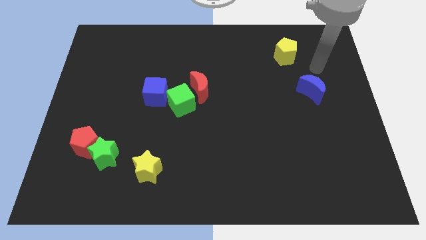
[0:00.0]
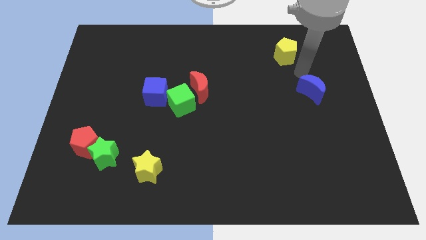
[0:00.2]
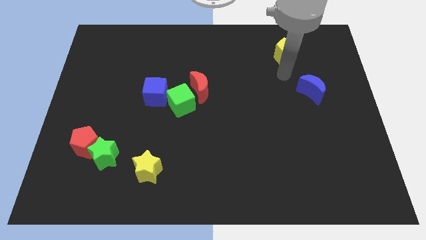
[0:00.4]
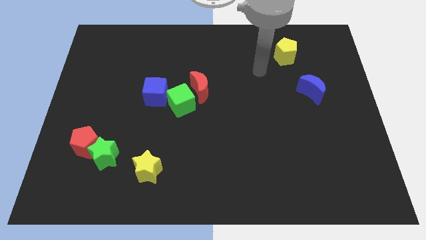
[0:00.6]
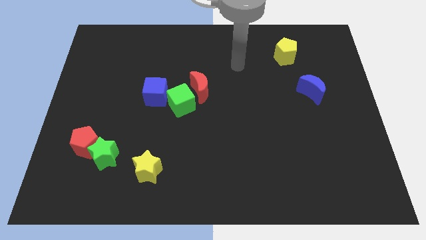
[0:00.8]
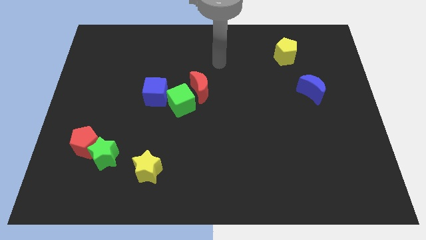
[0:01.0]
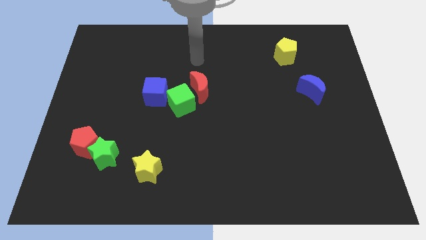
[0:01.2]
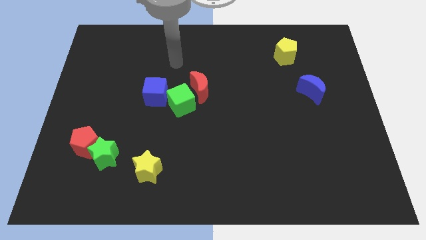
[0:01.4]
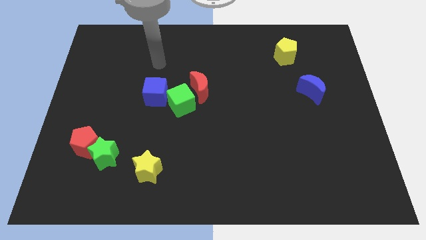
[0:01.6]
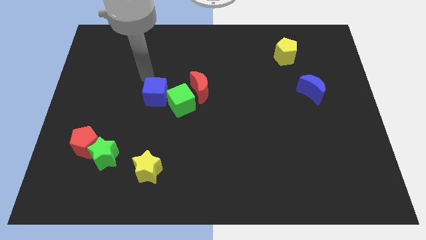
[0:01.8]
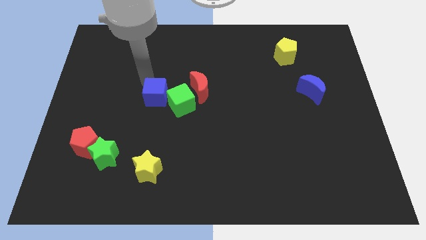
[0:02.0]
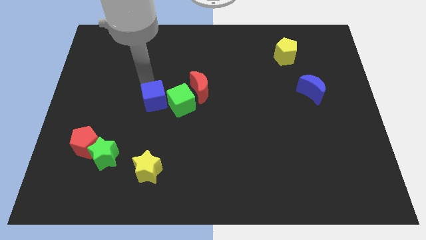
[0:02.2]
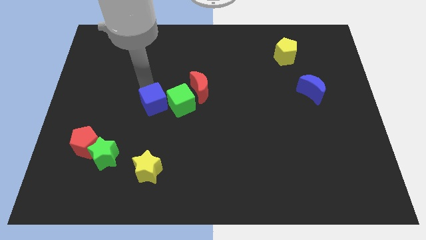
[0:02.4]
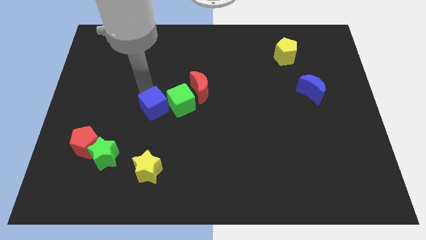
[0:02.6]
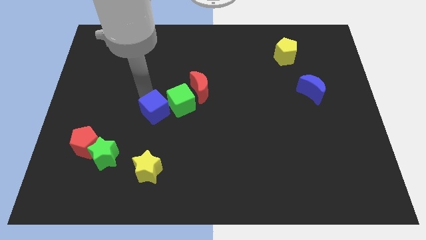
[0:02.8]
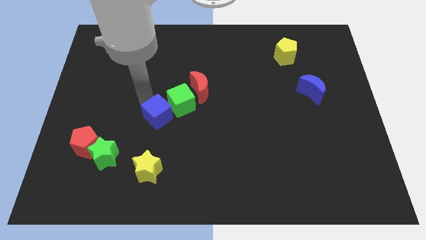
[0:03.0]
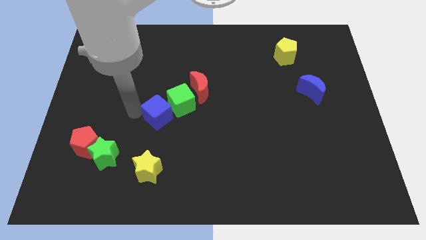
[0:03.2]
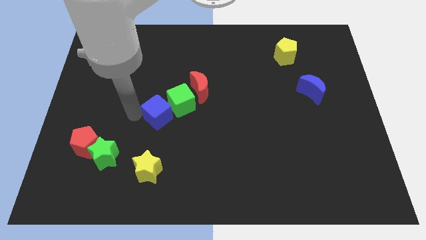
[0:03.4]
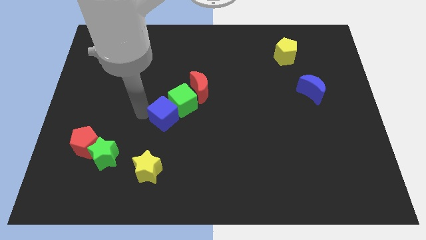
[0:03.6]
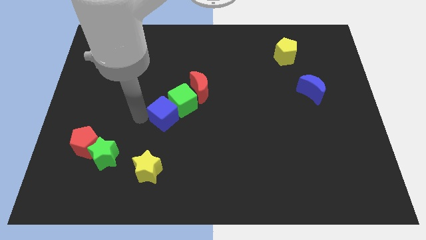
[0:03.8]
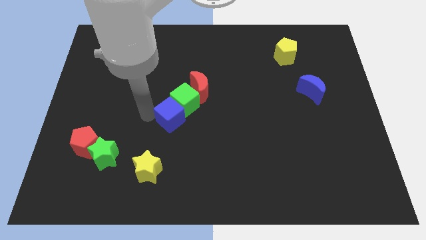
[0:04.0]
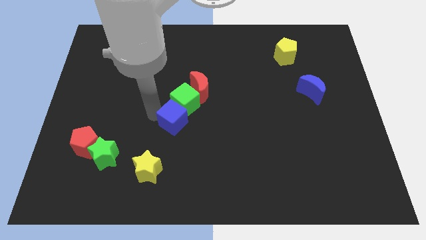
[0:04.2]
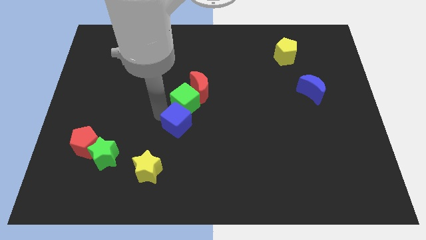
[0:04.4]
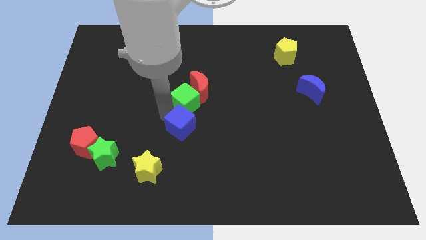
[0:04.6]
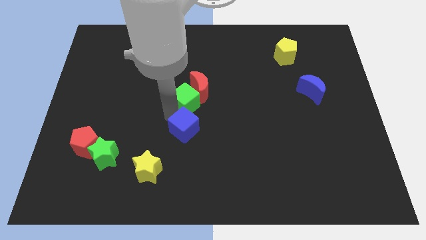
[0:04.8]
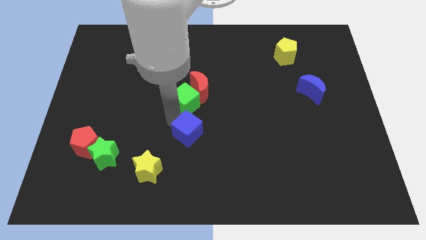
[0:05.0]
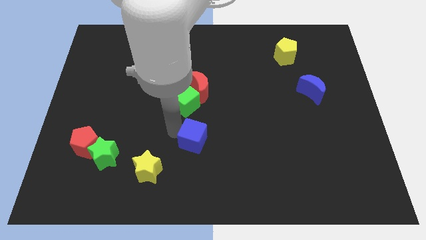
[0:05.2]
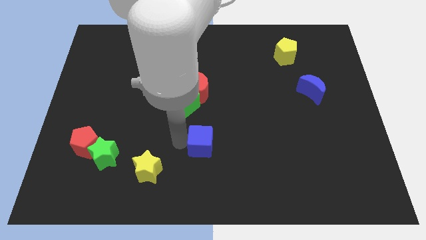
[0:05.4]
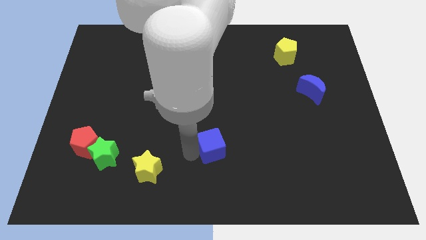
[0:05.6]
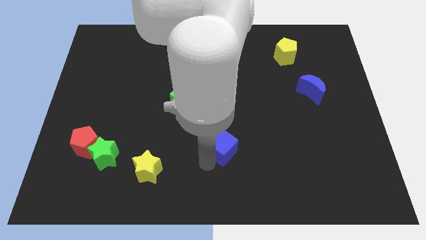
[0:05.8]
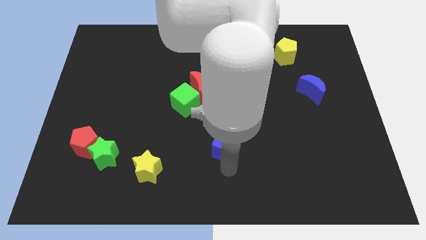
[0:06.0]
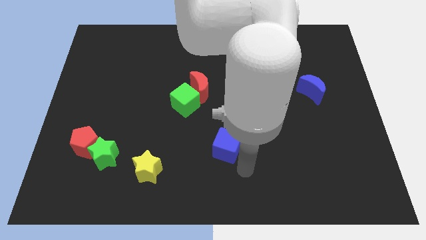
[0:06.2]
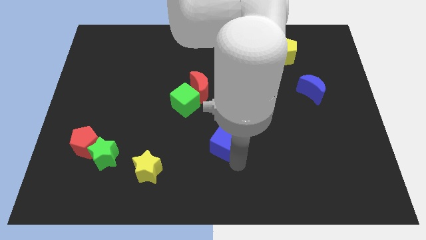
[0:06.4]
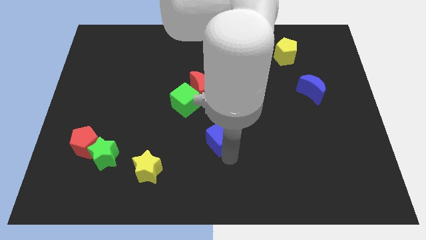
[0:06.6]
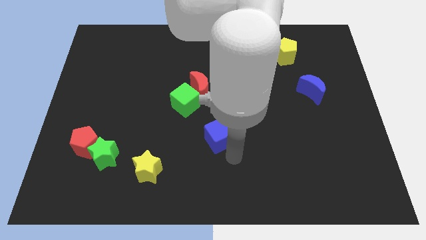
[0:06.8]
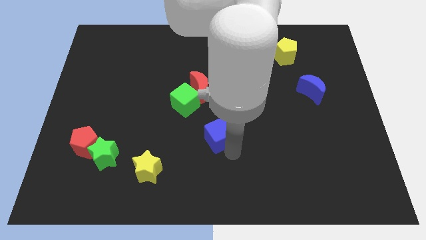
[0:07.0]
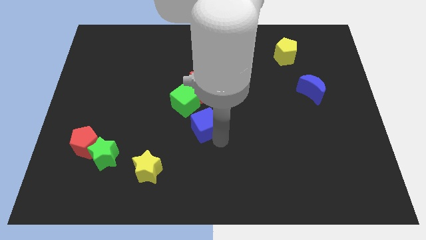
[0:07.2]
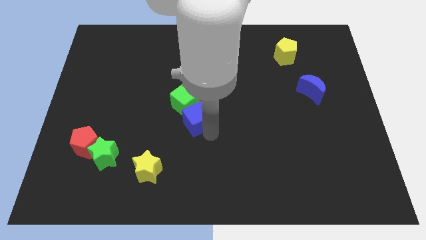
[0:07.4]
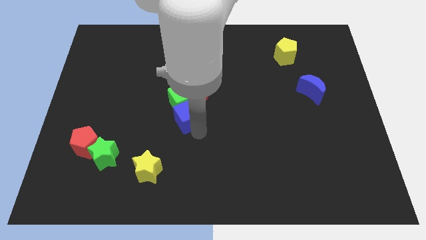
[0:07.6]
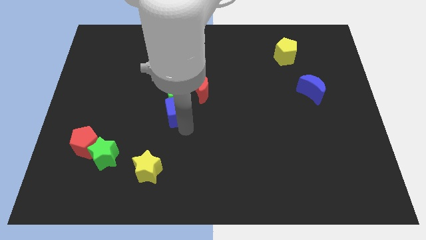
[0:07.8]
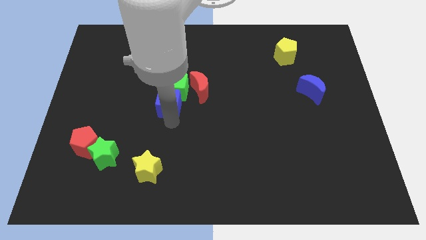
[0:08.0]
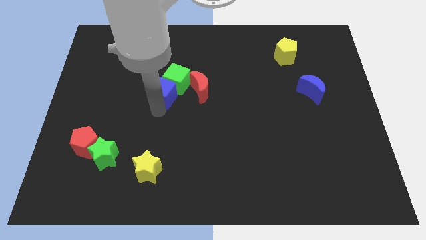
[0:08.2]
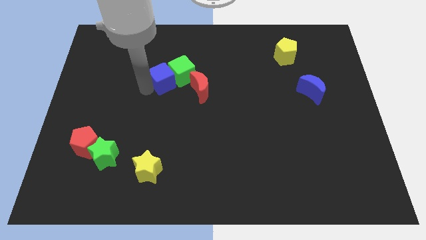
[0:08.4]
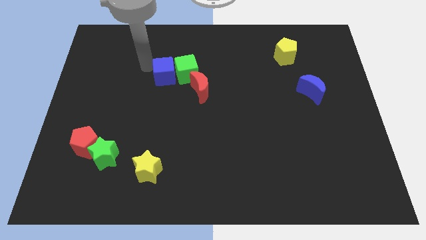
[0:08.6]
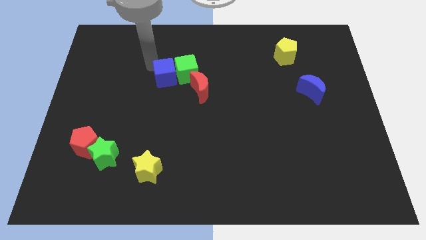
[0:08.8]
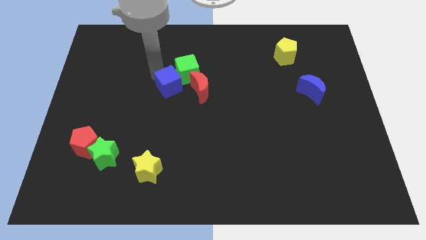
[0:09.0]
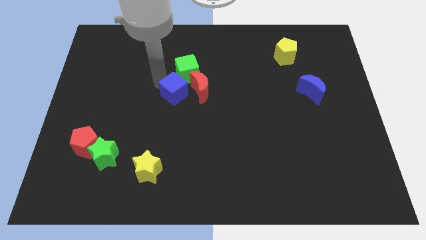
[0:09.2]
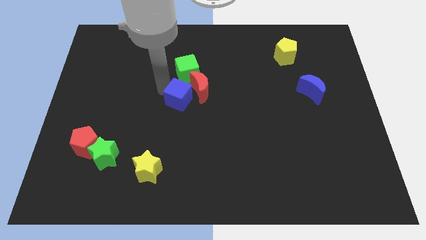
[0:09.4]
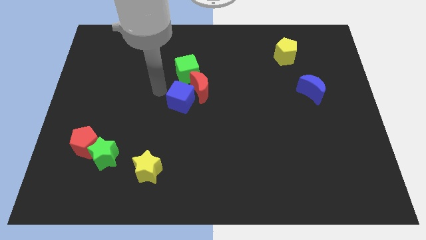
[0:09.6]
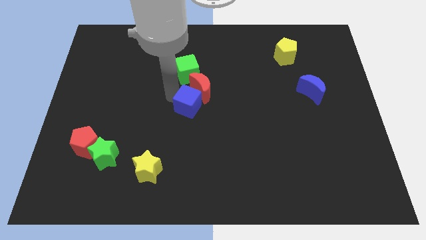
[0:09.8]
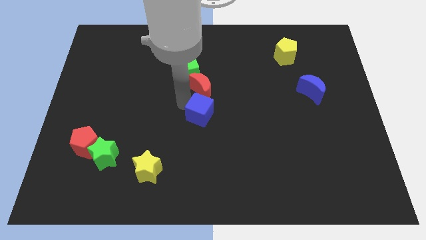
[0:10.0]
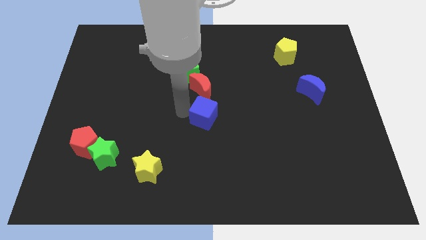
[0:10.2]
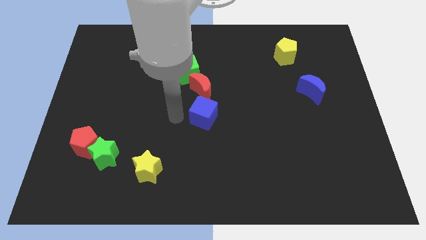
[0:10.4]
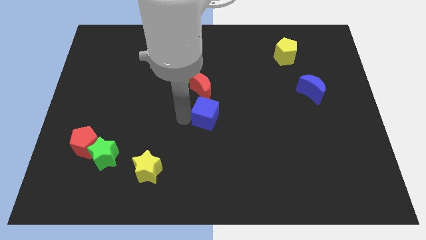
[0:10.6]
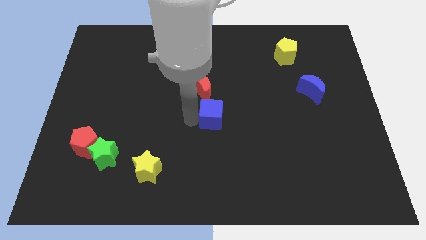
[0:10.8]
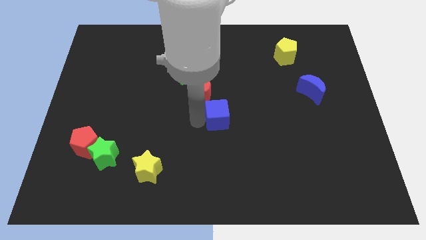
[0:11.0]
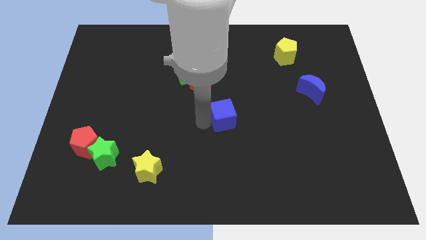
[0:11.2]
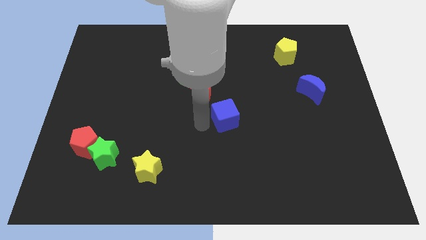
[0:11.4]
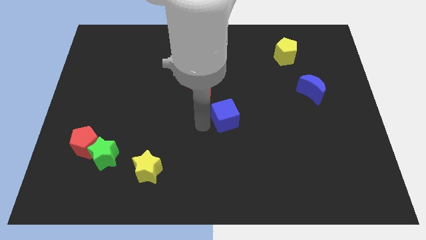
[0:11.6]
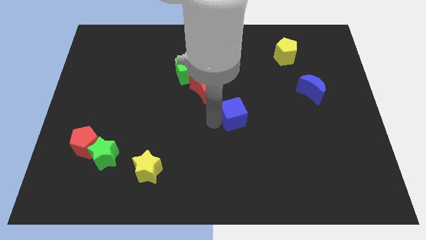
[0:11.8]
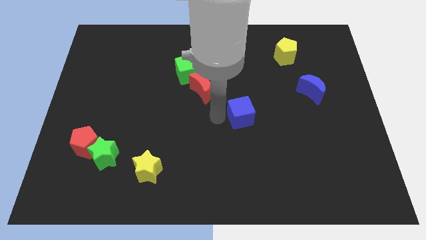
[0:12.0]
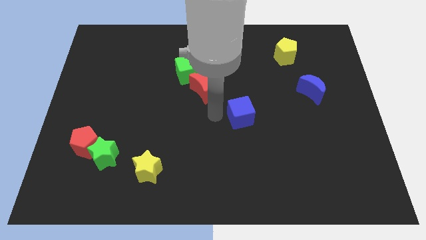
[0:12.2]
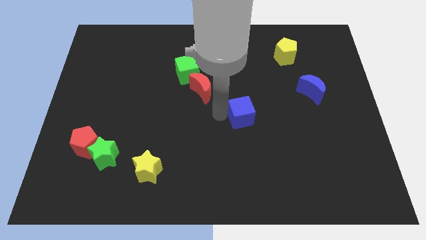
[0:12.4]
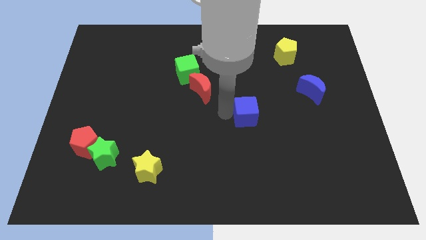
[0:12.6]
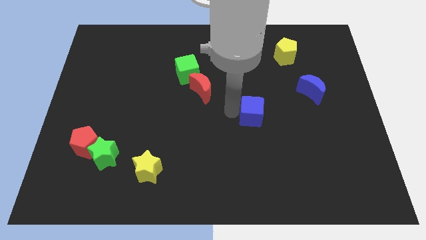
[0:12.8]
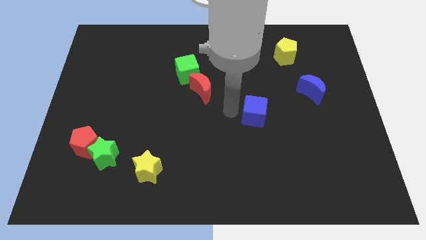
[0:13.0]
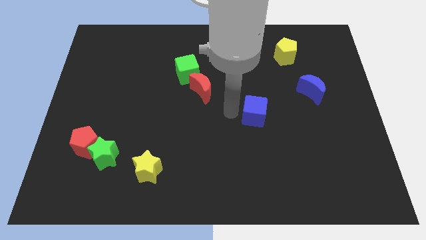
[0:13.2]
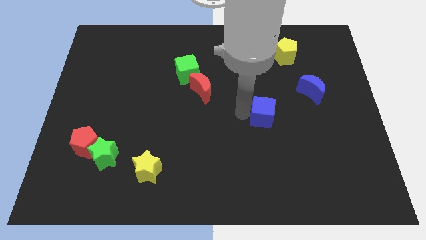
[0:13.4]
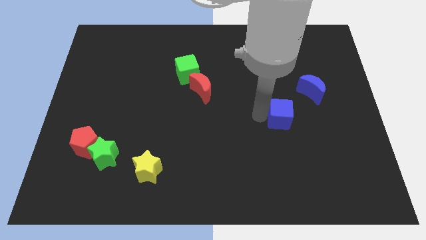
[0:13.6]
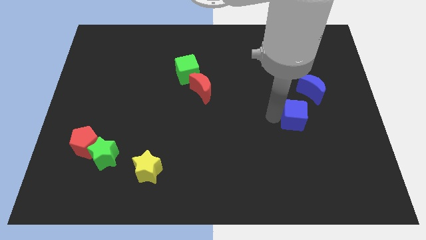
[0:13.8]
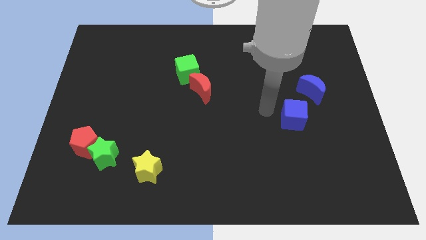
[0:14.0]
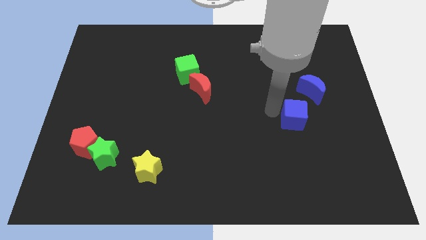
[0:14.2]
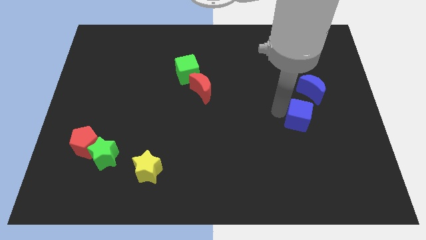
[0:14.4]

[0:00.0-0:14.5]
slide the blue cube below the blue moon

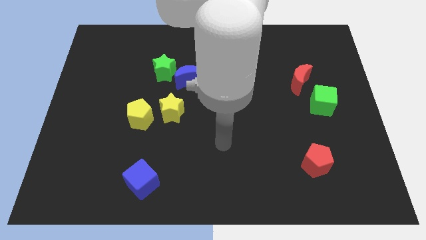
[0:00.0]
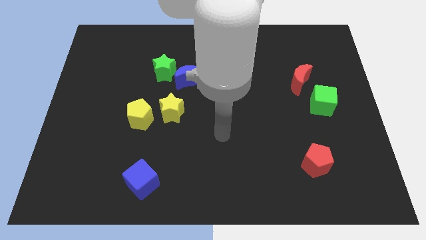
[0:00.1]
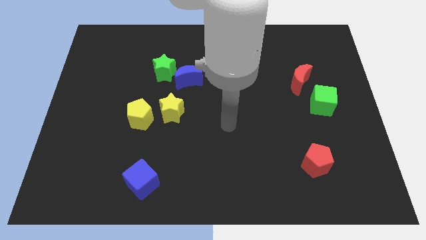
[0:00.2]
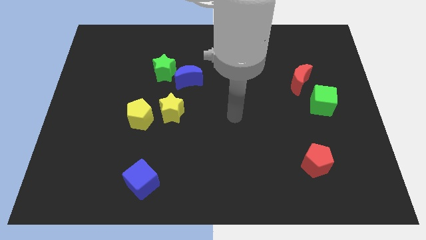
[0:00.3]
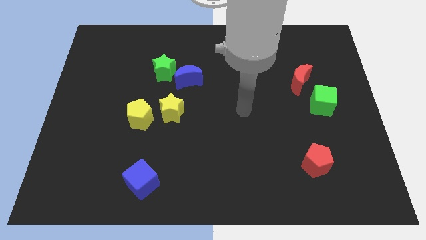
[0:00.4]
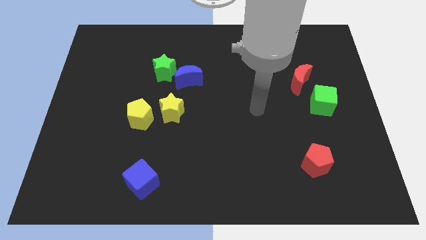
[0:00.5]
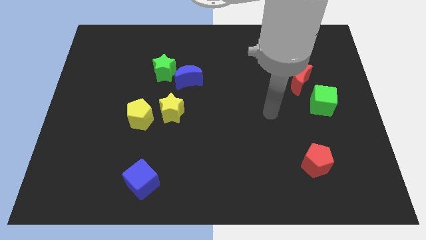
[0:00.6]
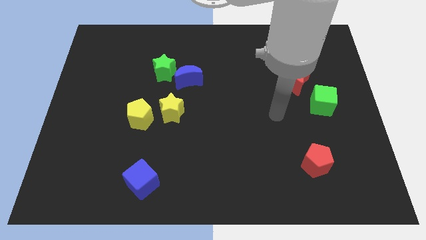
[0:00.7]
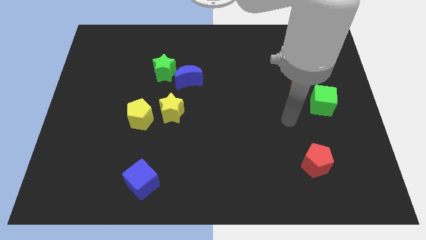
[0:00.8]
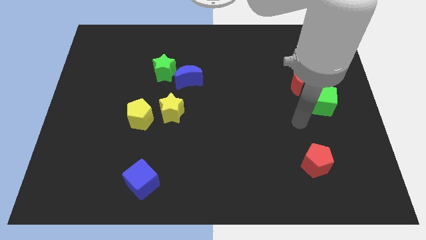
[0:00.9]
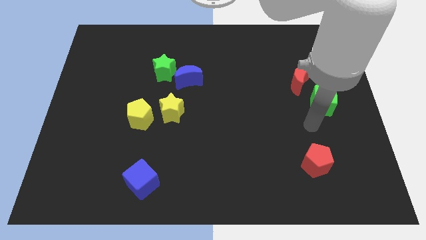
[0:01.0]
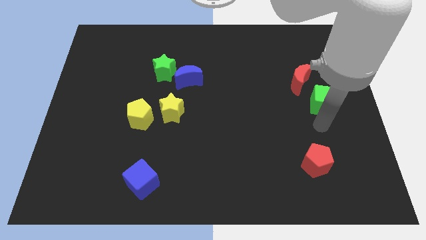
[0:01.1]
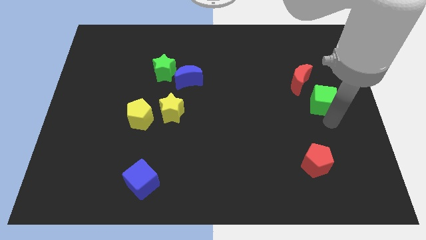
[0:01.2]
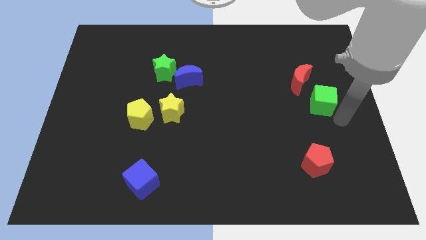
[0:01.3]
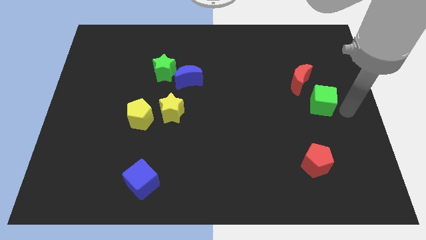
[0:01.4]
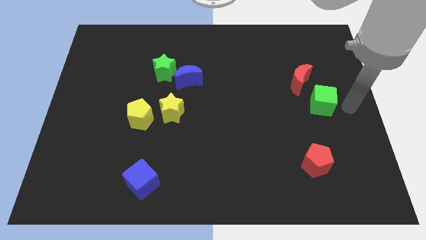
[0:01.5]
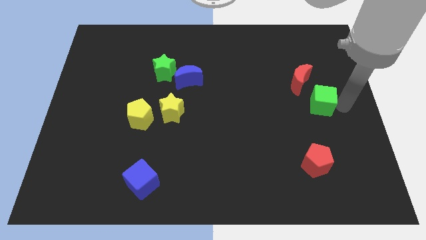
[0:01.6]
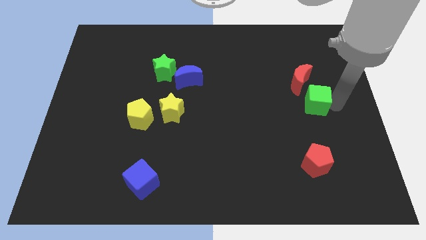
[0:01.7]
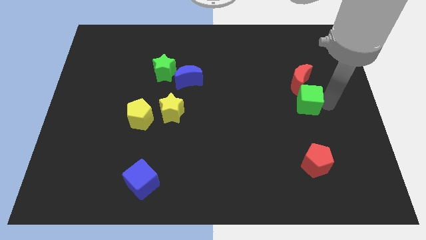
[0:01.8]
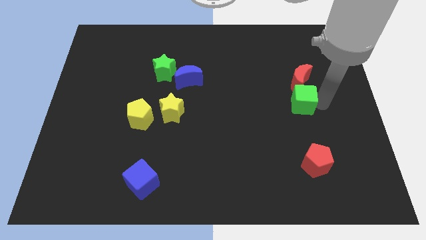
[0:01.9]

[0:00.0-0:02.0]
move the green cube to the bottom left side of the red moon
